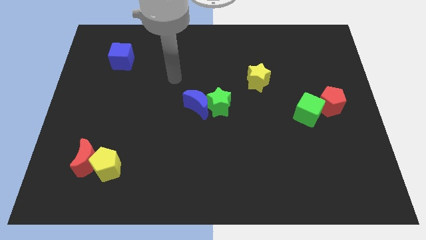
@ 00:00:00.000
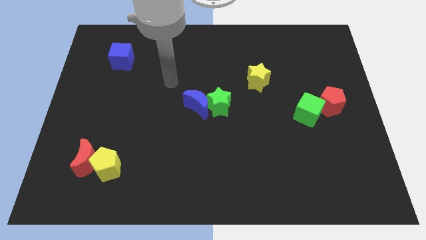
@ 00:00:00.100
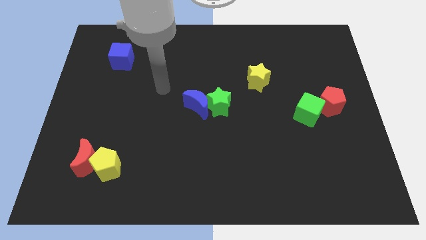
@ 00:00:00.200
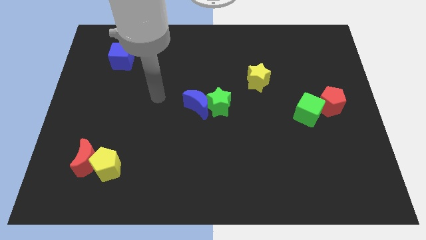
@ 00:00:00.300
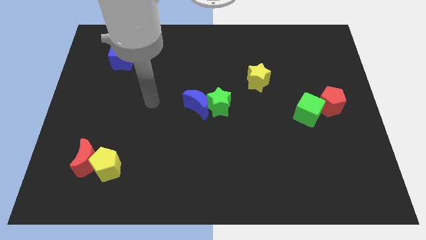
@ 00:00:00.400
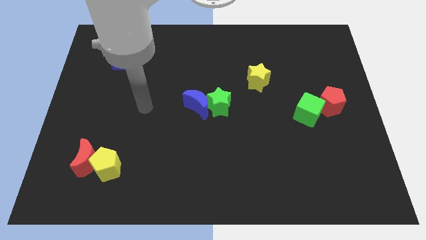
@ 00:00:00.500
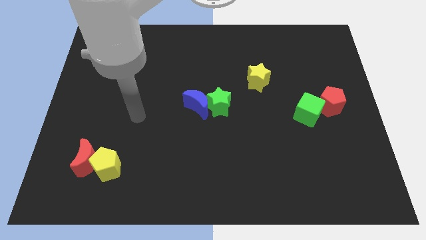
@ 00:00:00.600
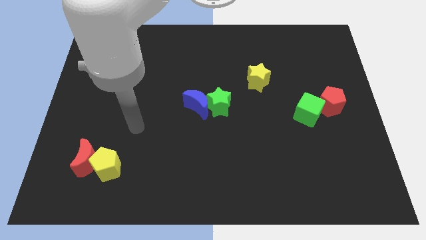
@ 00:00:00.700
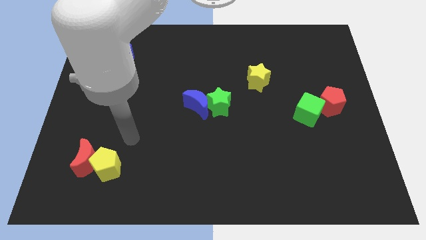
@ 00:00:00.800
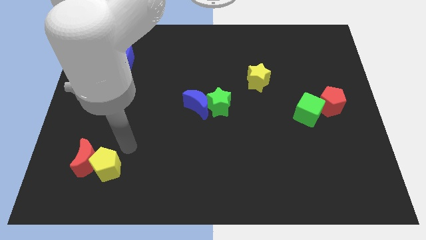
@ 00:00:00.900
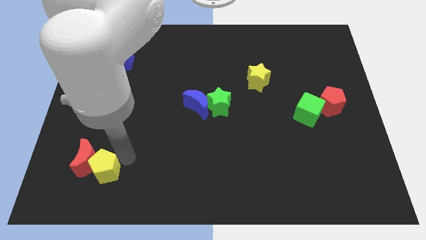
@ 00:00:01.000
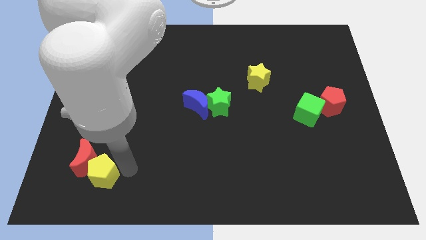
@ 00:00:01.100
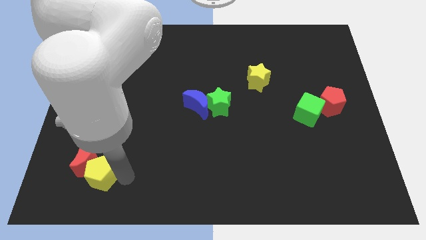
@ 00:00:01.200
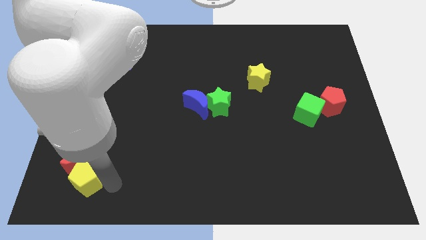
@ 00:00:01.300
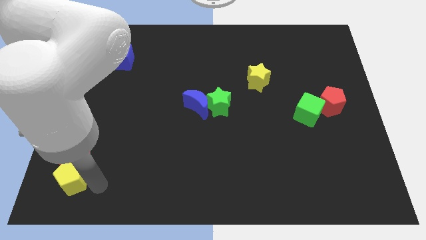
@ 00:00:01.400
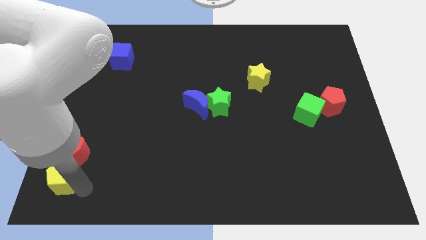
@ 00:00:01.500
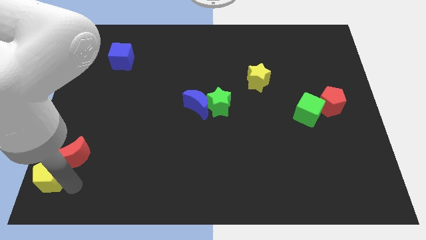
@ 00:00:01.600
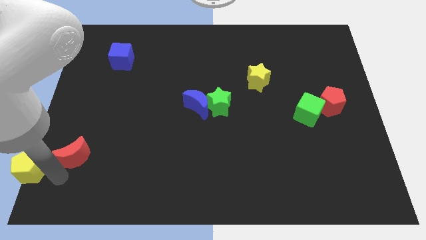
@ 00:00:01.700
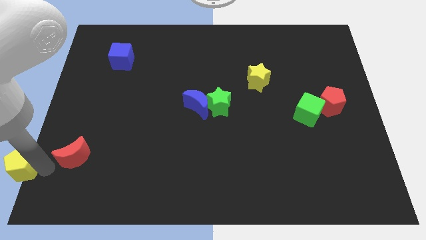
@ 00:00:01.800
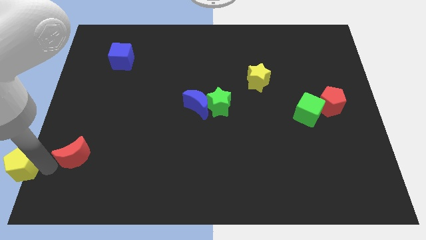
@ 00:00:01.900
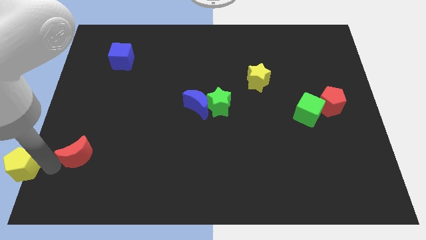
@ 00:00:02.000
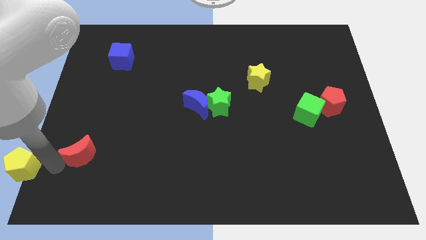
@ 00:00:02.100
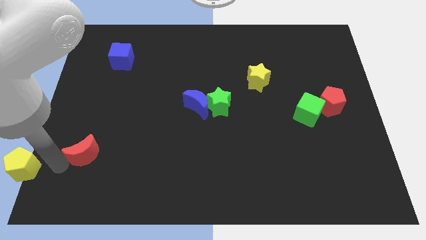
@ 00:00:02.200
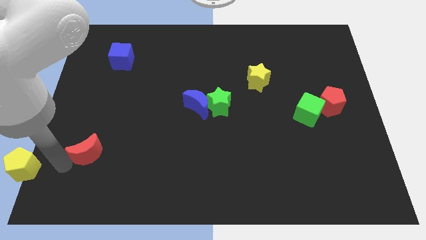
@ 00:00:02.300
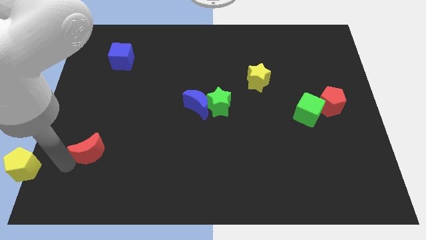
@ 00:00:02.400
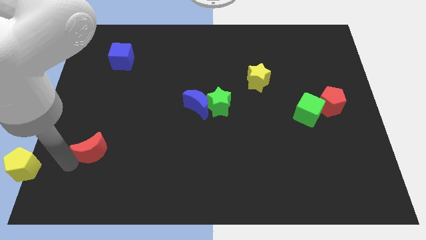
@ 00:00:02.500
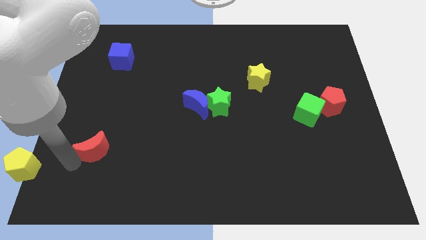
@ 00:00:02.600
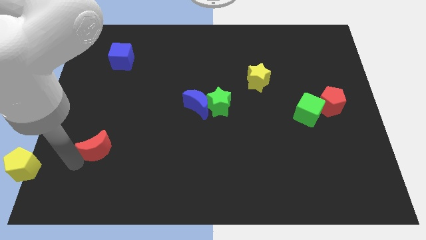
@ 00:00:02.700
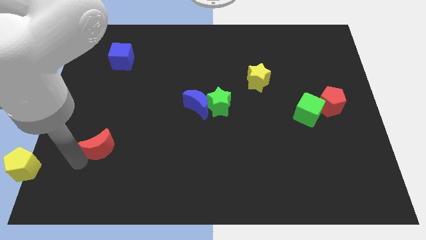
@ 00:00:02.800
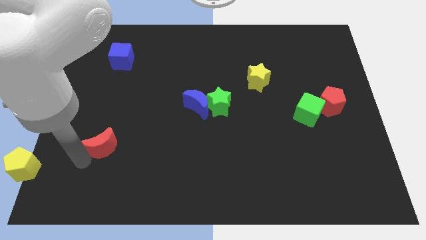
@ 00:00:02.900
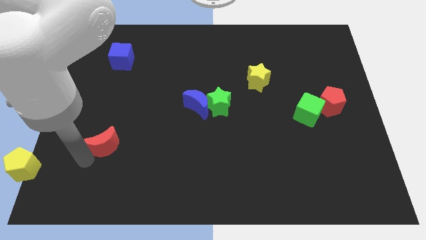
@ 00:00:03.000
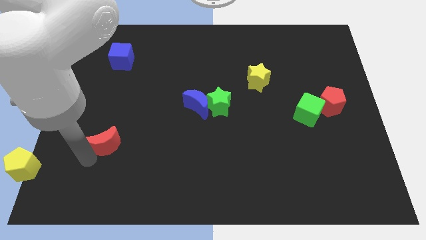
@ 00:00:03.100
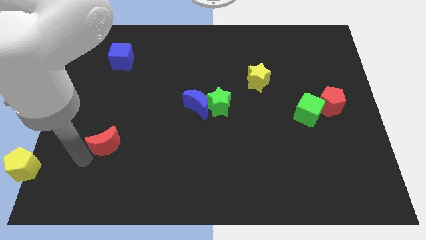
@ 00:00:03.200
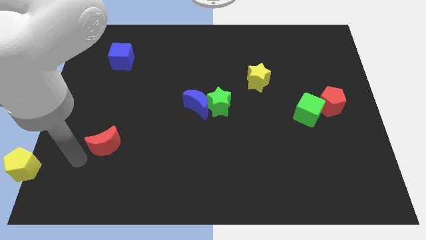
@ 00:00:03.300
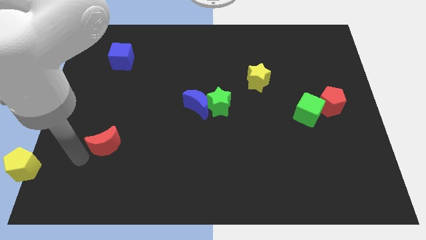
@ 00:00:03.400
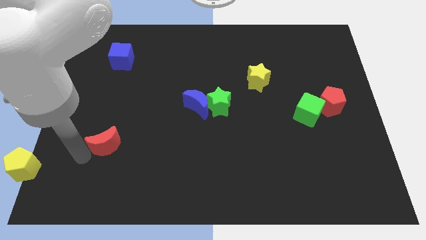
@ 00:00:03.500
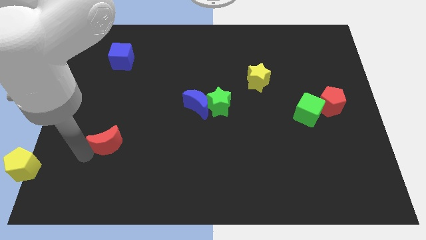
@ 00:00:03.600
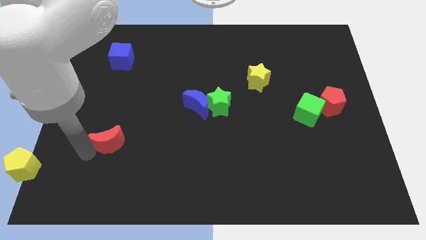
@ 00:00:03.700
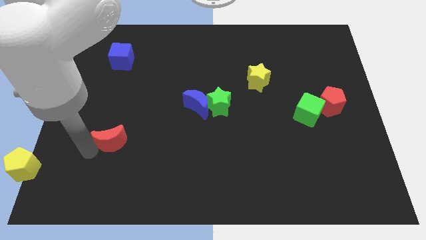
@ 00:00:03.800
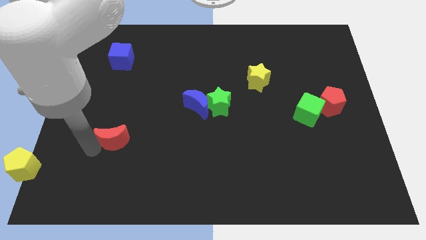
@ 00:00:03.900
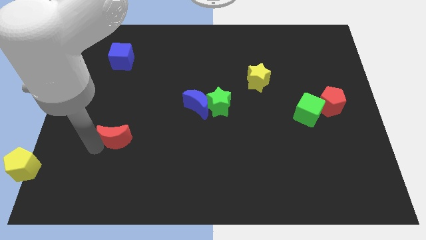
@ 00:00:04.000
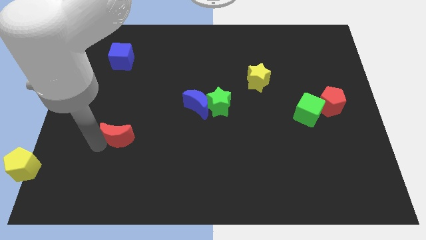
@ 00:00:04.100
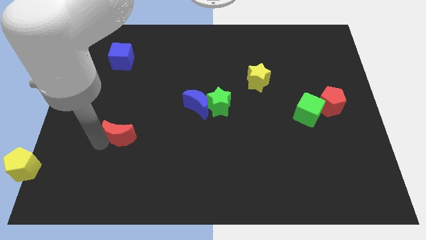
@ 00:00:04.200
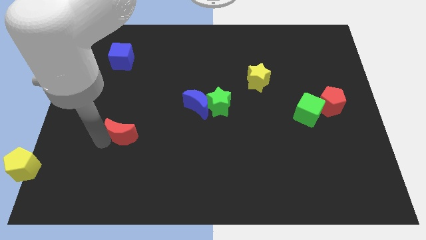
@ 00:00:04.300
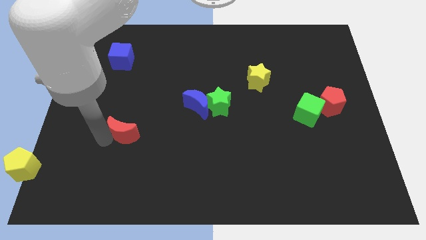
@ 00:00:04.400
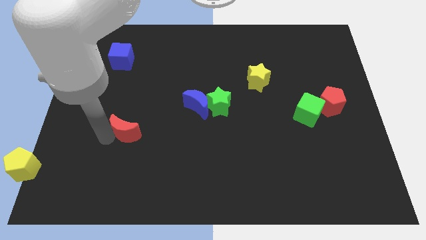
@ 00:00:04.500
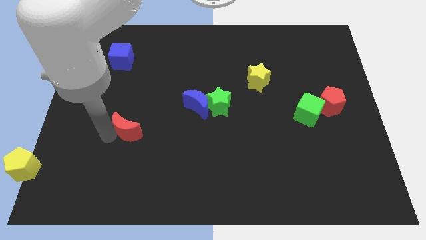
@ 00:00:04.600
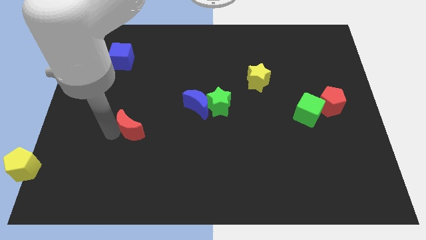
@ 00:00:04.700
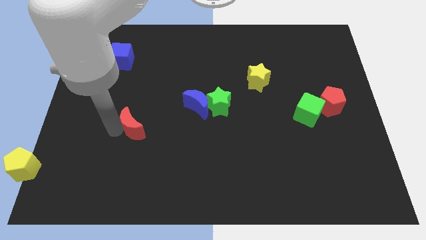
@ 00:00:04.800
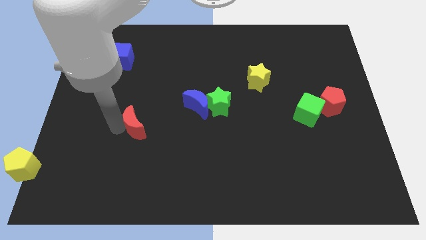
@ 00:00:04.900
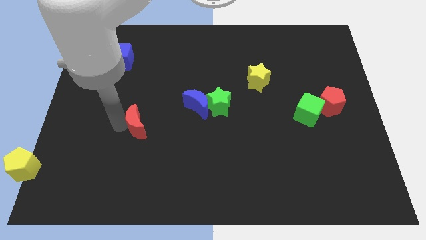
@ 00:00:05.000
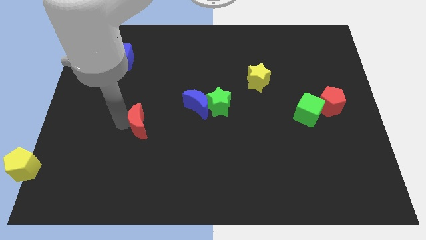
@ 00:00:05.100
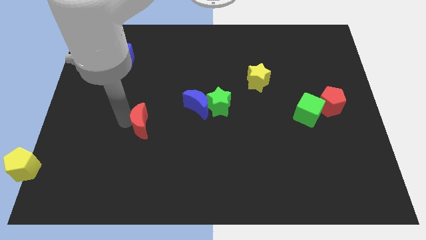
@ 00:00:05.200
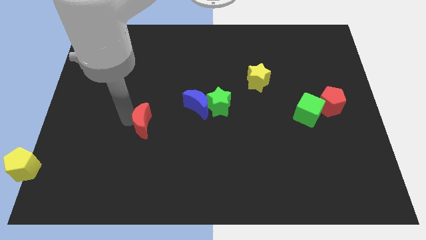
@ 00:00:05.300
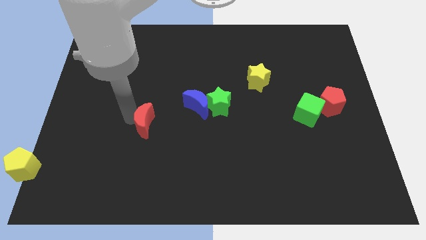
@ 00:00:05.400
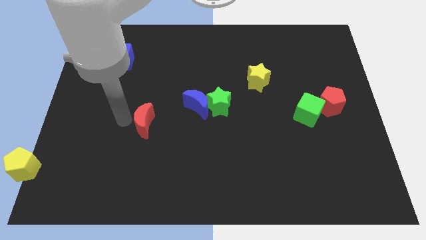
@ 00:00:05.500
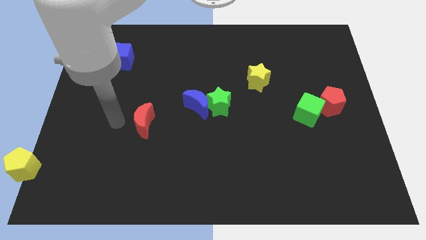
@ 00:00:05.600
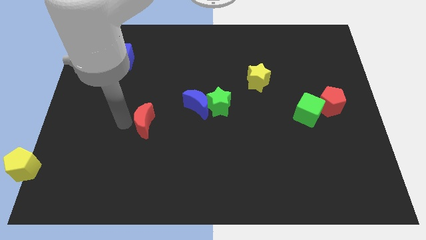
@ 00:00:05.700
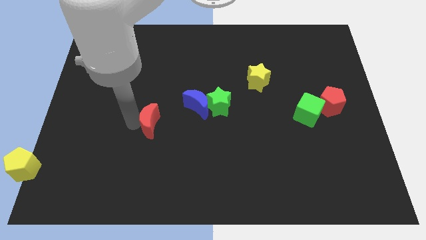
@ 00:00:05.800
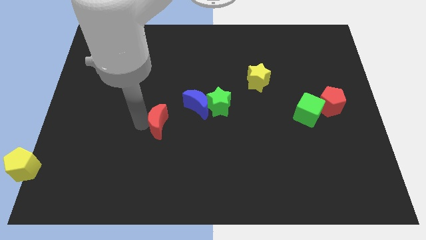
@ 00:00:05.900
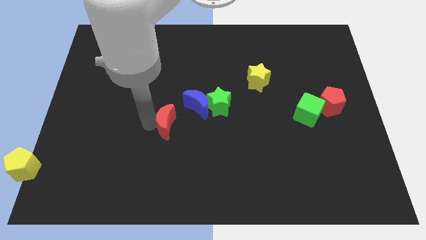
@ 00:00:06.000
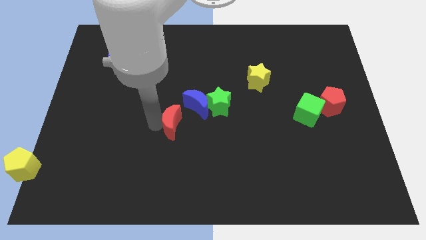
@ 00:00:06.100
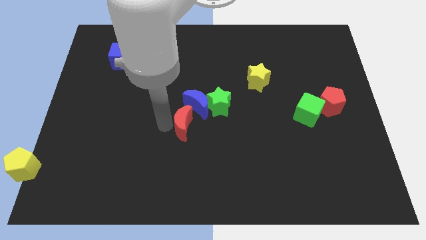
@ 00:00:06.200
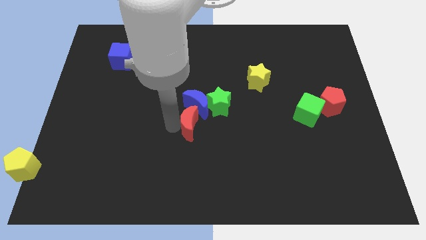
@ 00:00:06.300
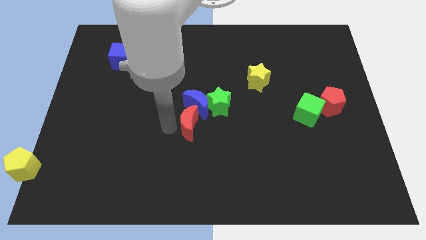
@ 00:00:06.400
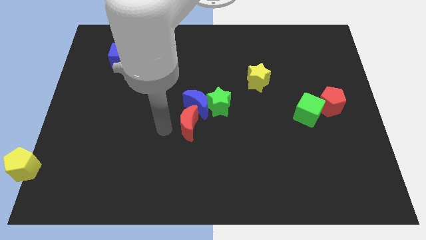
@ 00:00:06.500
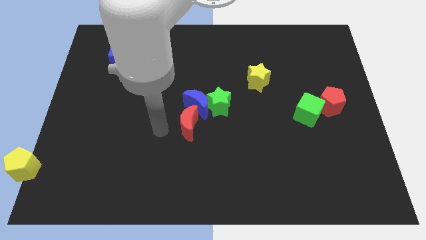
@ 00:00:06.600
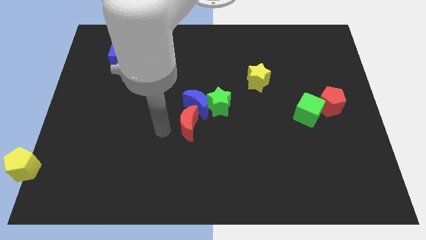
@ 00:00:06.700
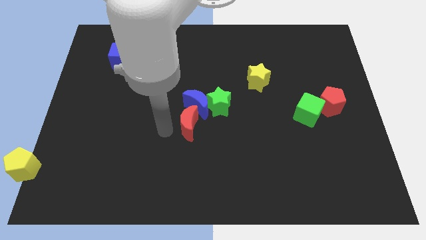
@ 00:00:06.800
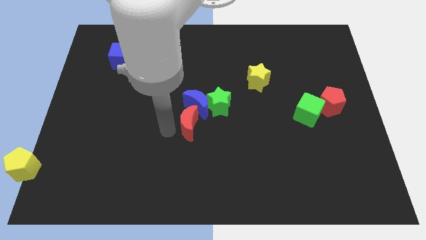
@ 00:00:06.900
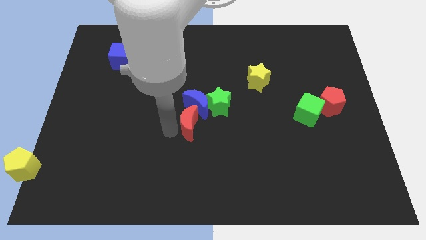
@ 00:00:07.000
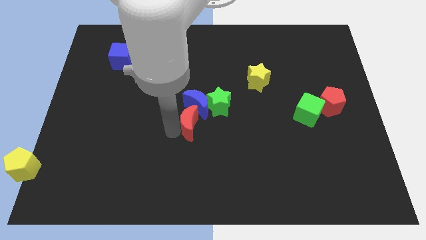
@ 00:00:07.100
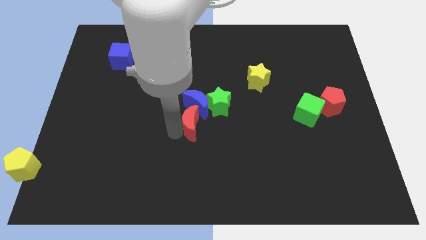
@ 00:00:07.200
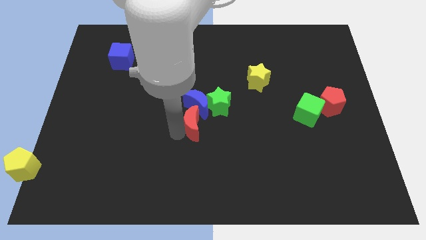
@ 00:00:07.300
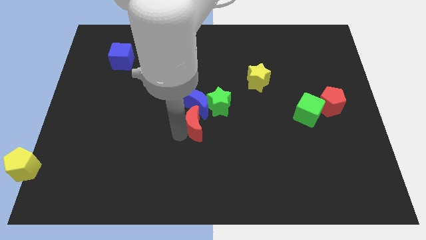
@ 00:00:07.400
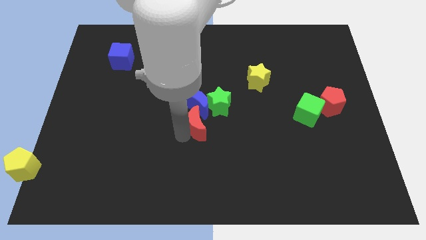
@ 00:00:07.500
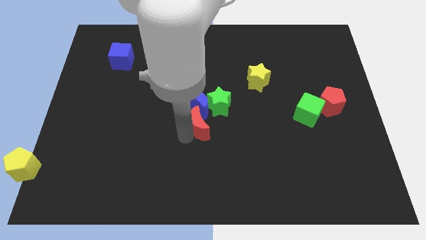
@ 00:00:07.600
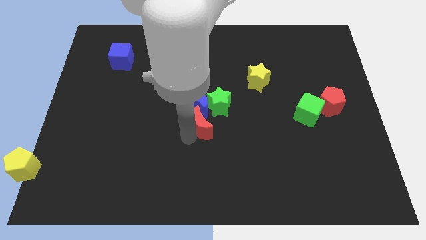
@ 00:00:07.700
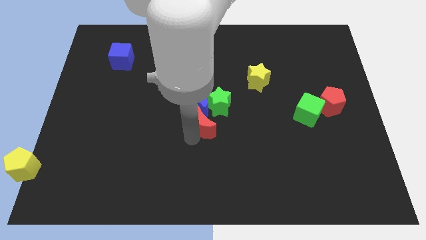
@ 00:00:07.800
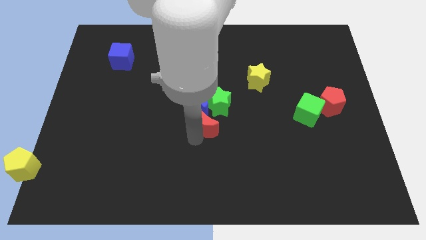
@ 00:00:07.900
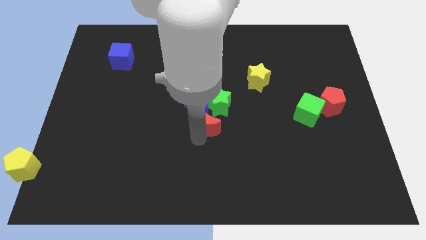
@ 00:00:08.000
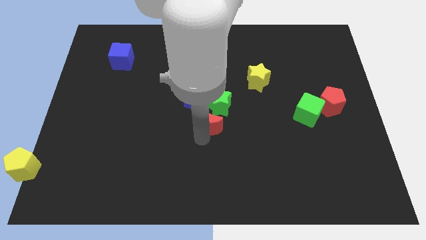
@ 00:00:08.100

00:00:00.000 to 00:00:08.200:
put the red moon next to the green star
